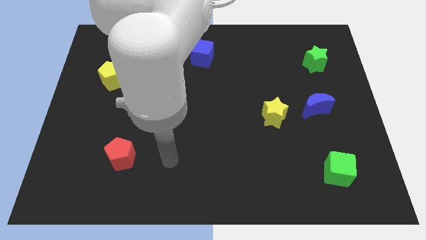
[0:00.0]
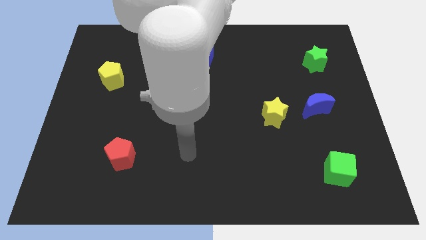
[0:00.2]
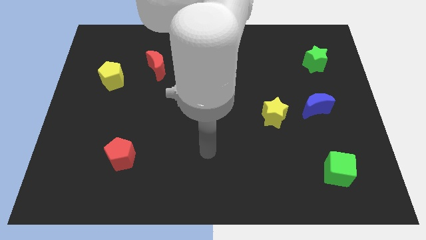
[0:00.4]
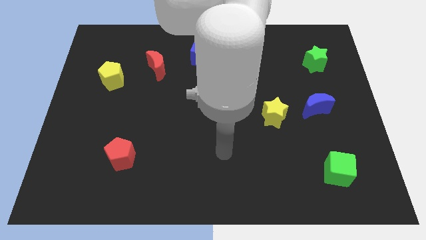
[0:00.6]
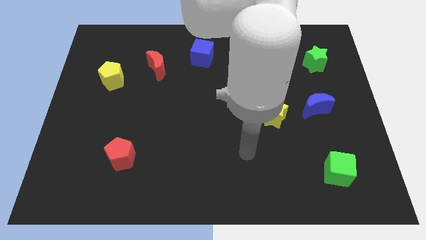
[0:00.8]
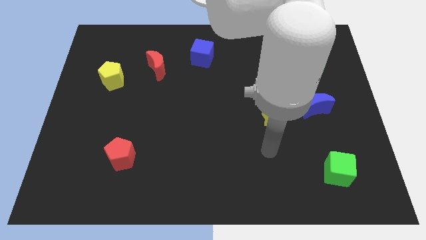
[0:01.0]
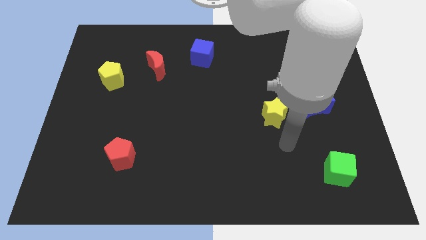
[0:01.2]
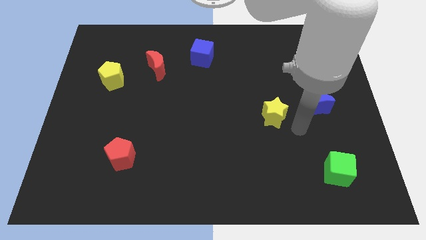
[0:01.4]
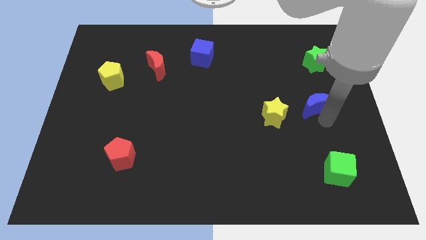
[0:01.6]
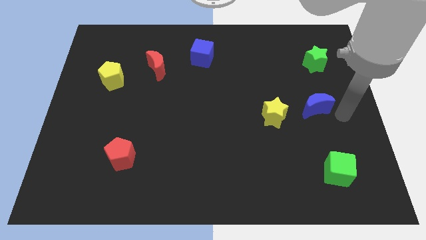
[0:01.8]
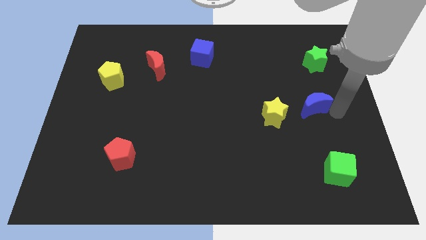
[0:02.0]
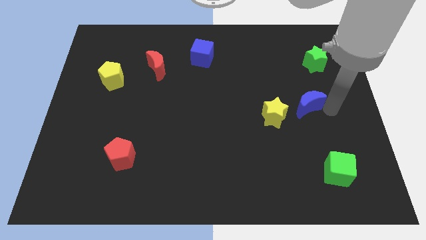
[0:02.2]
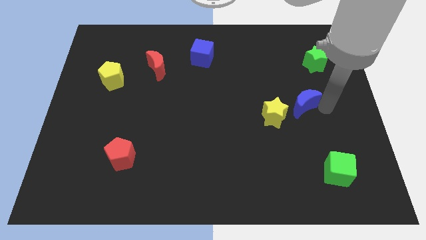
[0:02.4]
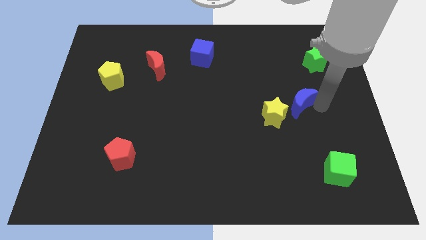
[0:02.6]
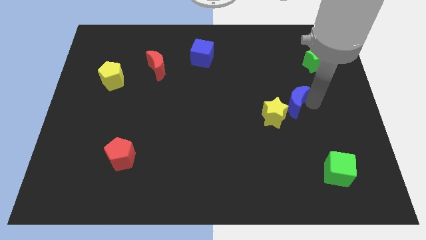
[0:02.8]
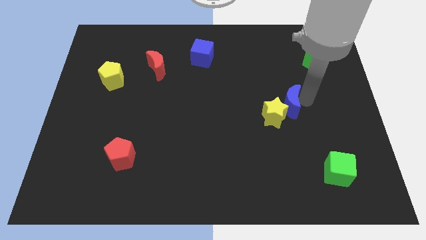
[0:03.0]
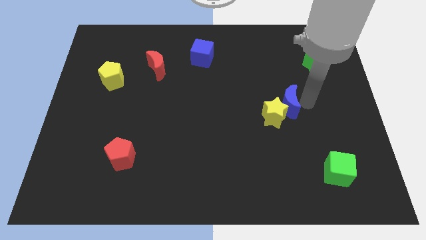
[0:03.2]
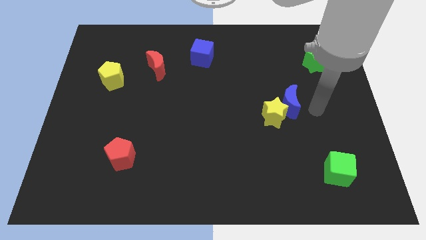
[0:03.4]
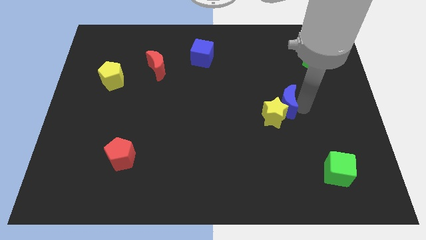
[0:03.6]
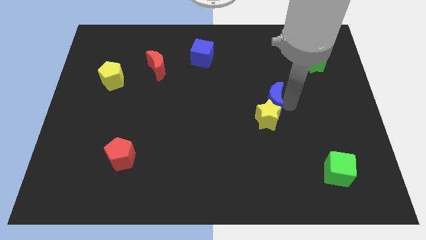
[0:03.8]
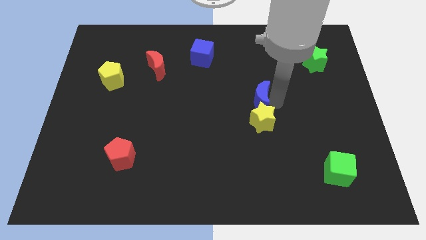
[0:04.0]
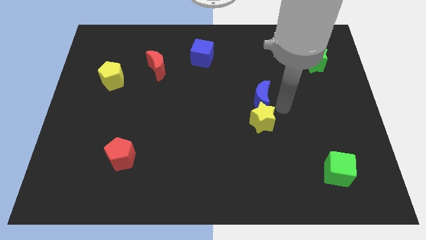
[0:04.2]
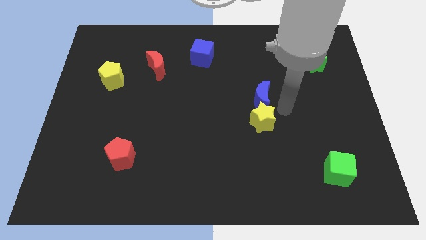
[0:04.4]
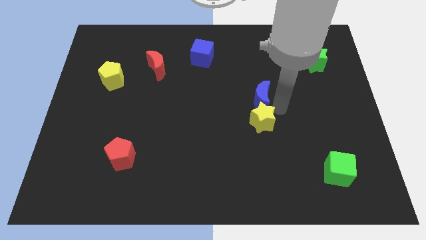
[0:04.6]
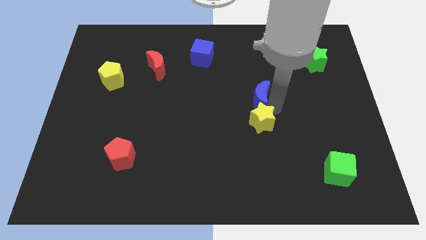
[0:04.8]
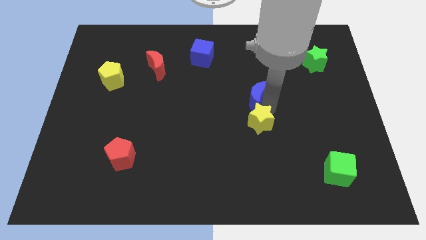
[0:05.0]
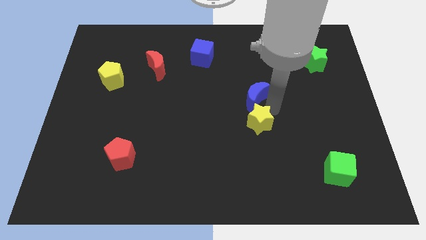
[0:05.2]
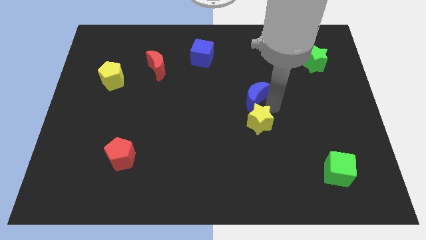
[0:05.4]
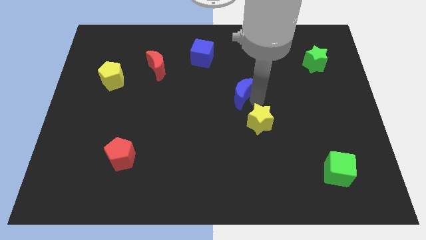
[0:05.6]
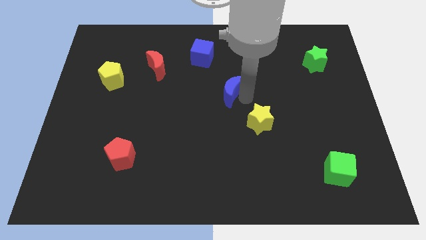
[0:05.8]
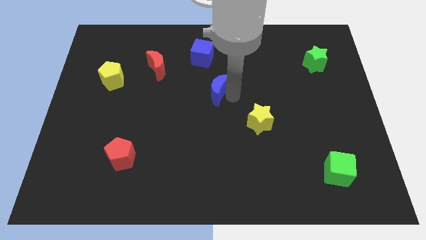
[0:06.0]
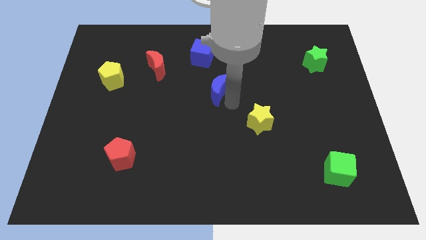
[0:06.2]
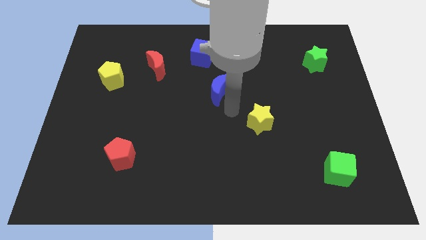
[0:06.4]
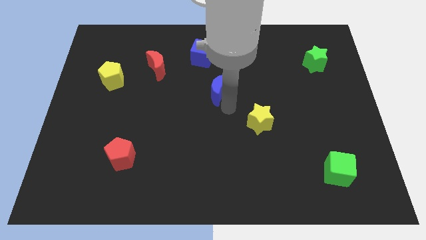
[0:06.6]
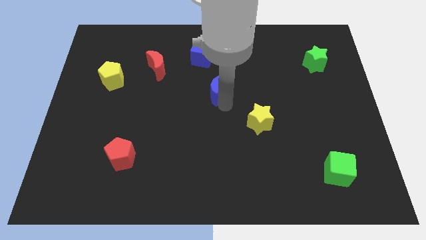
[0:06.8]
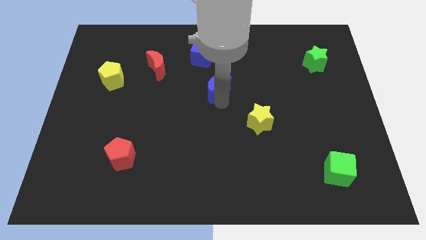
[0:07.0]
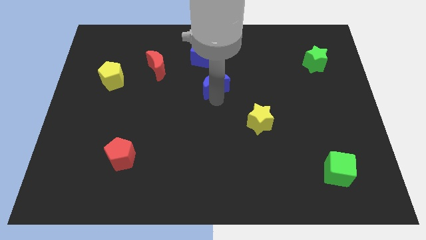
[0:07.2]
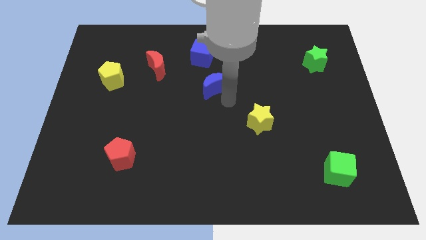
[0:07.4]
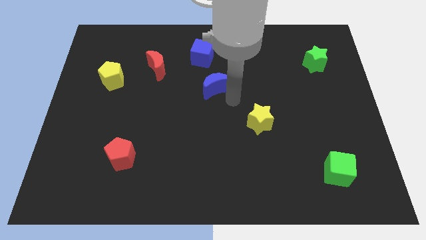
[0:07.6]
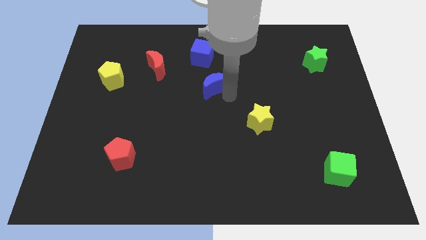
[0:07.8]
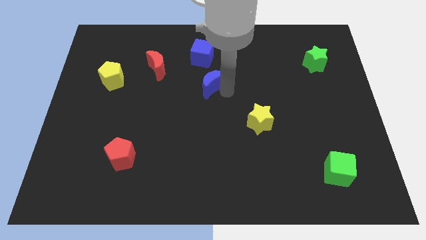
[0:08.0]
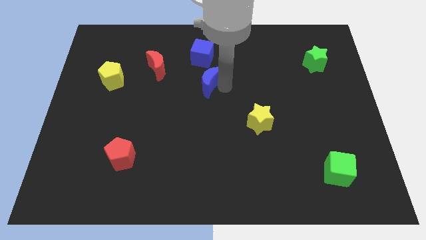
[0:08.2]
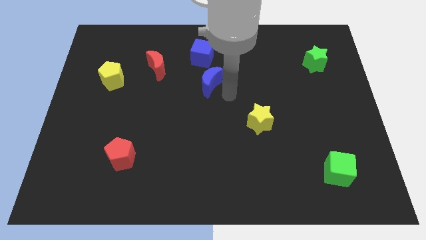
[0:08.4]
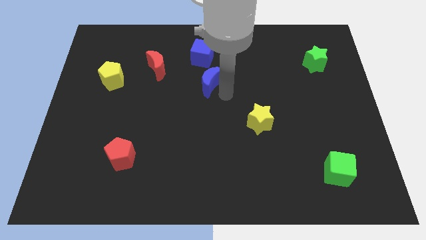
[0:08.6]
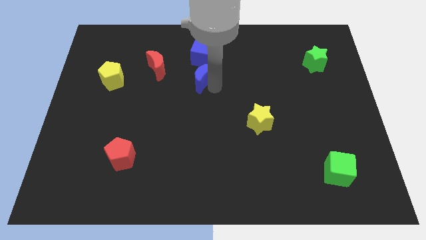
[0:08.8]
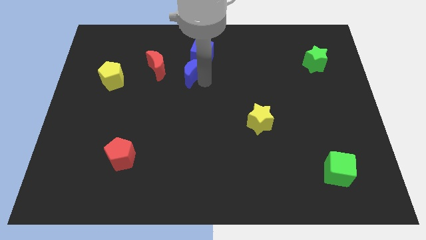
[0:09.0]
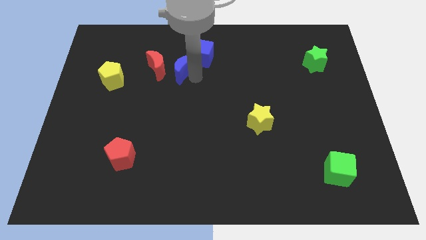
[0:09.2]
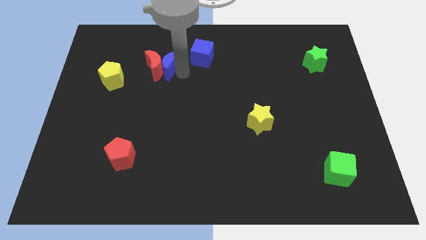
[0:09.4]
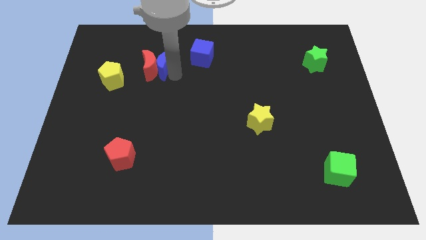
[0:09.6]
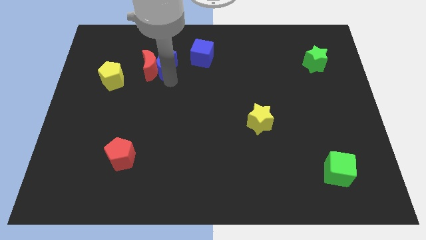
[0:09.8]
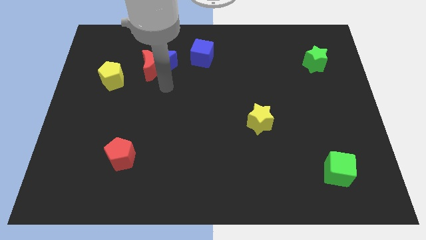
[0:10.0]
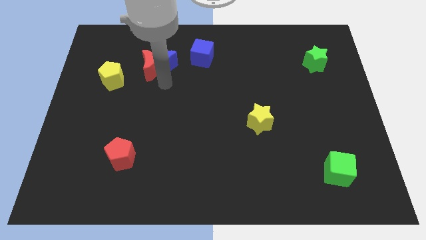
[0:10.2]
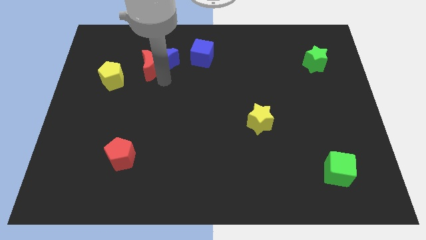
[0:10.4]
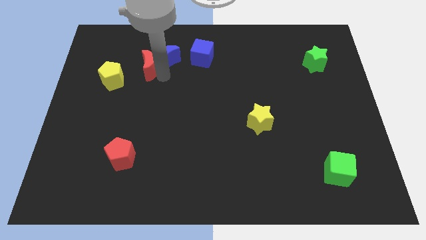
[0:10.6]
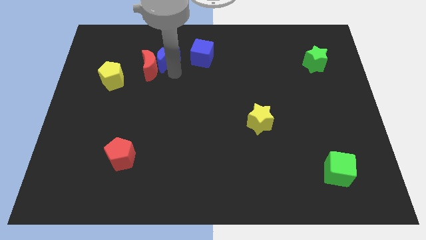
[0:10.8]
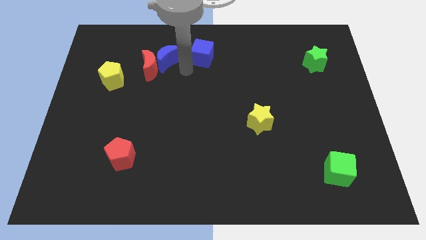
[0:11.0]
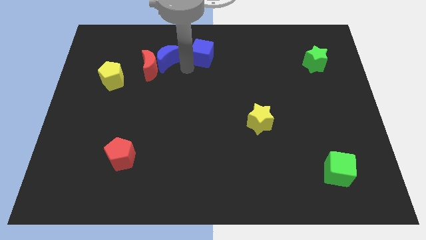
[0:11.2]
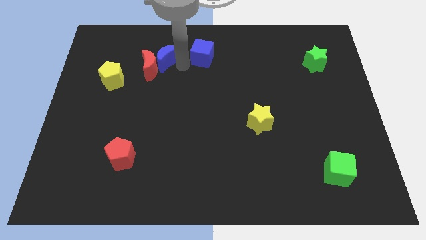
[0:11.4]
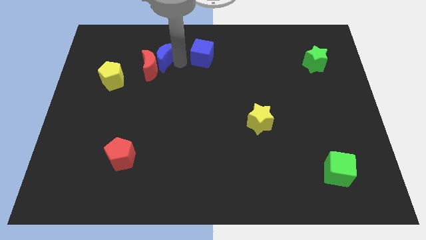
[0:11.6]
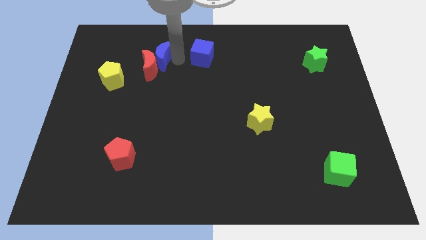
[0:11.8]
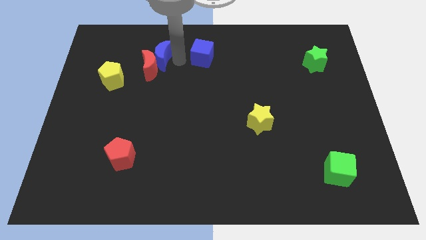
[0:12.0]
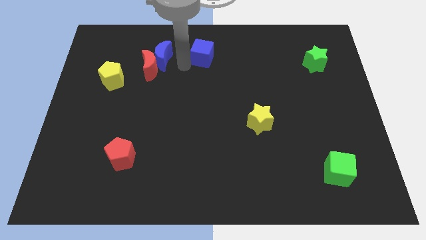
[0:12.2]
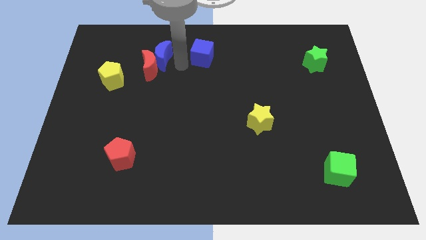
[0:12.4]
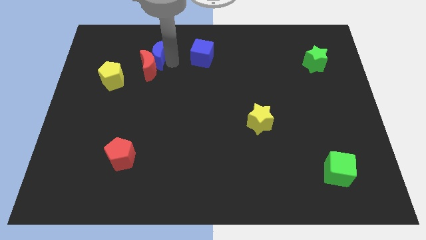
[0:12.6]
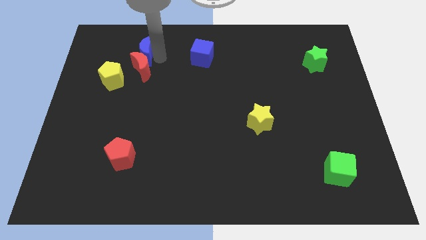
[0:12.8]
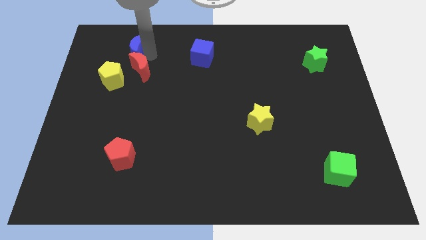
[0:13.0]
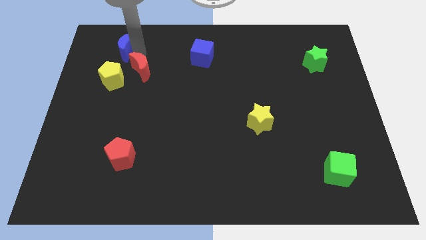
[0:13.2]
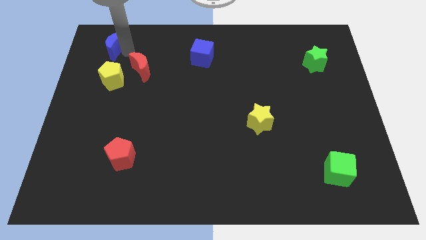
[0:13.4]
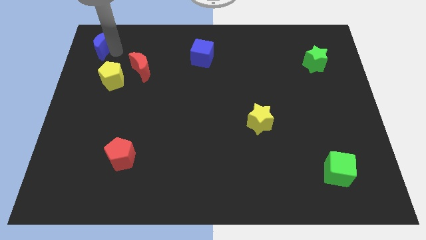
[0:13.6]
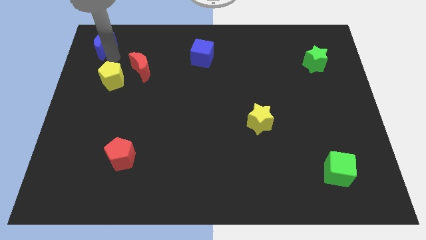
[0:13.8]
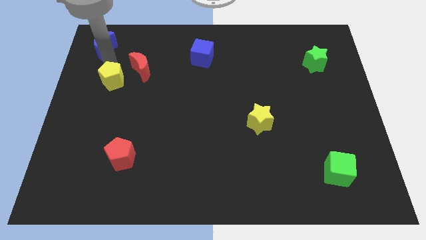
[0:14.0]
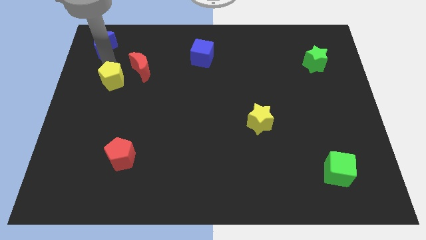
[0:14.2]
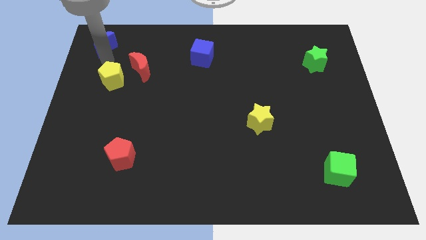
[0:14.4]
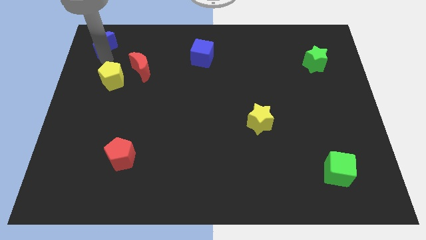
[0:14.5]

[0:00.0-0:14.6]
move the blue moon to the top left corner
